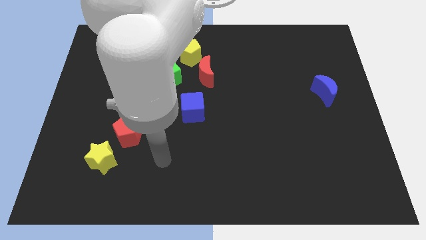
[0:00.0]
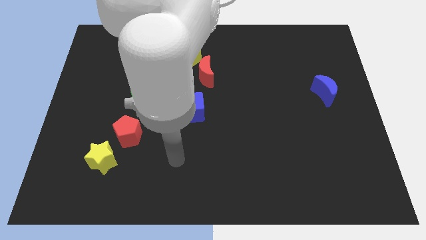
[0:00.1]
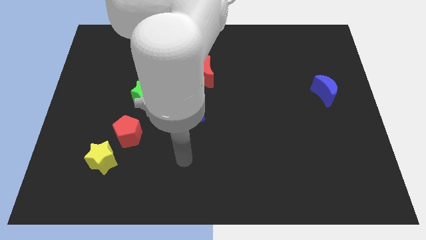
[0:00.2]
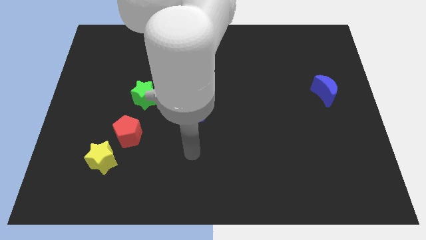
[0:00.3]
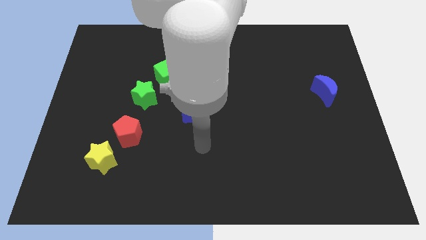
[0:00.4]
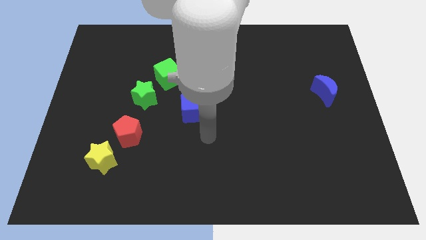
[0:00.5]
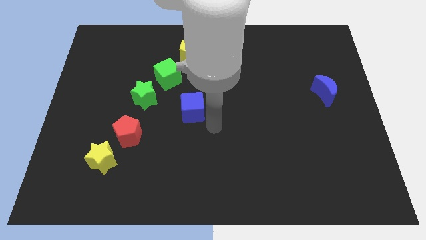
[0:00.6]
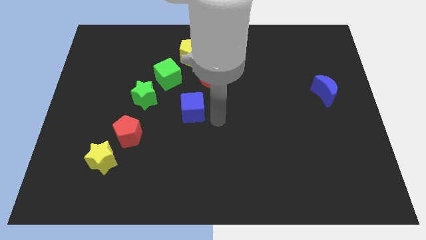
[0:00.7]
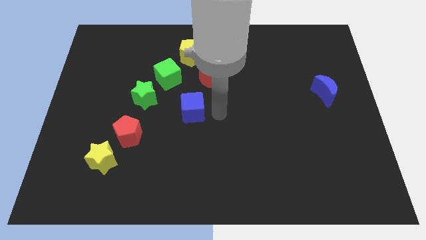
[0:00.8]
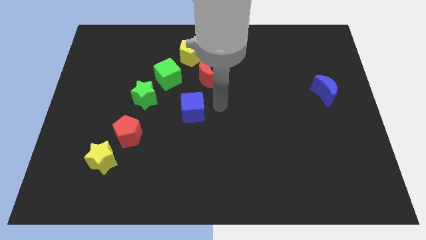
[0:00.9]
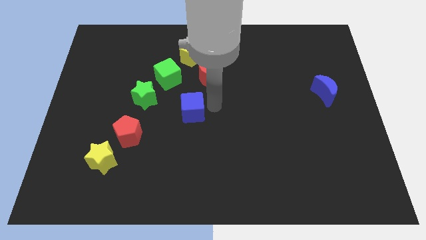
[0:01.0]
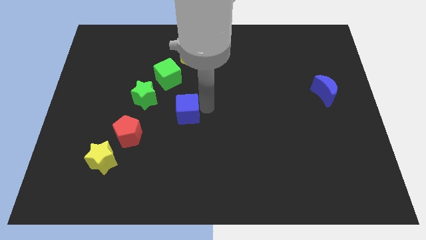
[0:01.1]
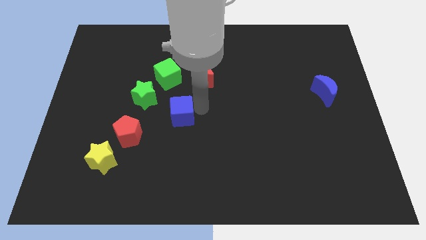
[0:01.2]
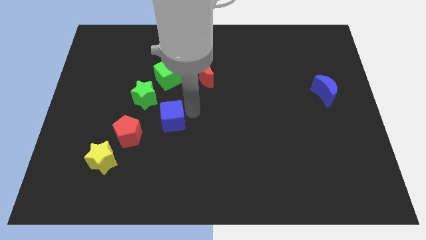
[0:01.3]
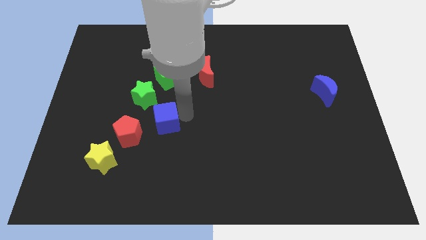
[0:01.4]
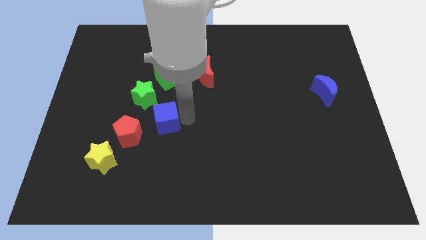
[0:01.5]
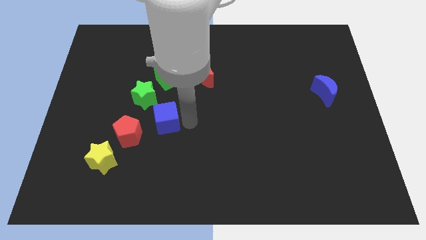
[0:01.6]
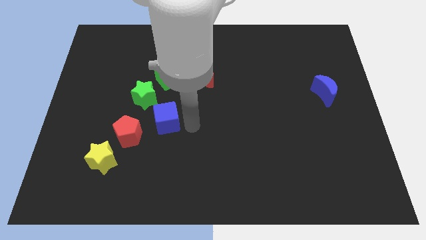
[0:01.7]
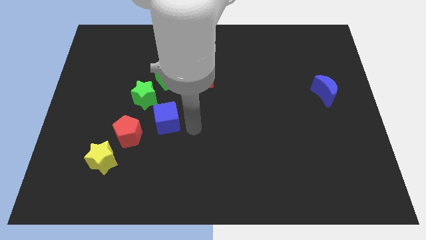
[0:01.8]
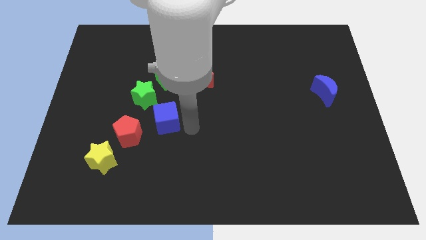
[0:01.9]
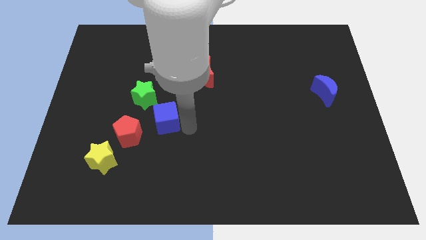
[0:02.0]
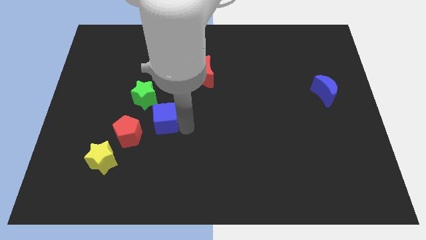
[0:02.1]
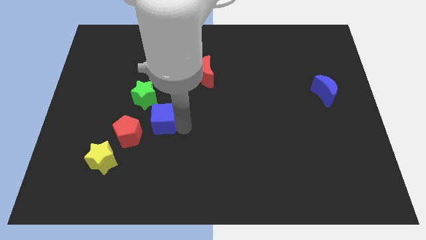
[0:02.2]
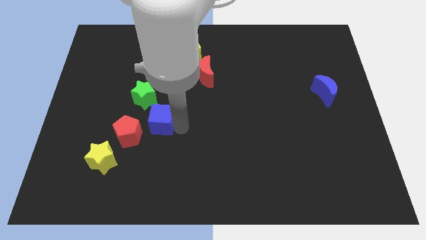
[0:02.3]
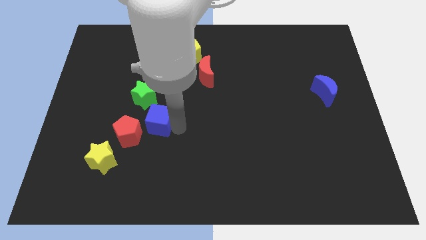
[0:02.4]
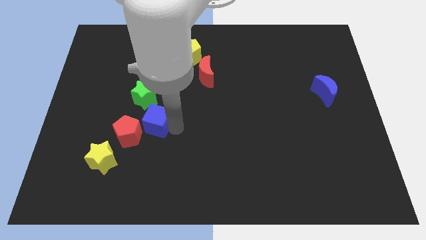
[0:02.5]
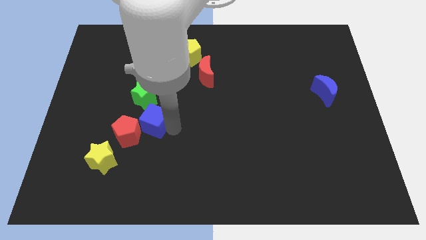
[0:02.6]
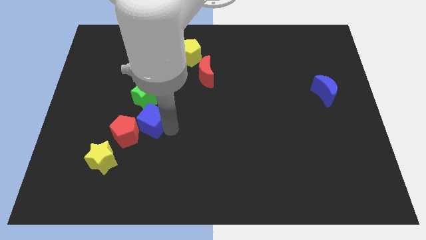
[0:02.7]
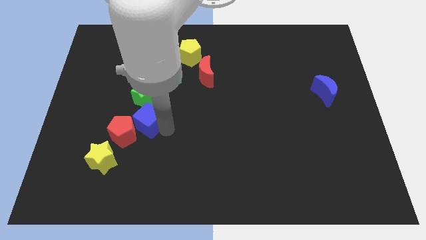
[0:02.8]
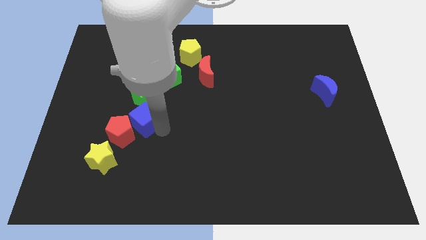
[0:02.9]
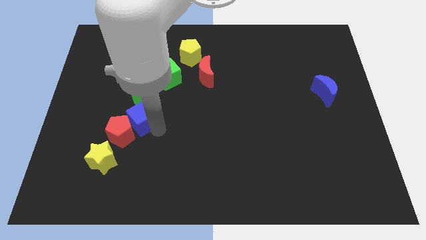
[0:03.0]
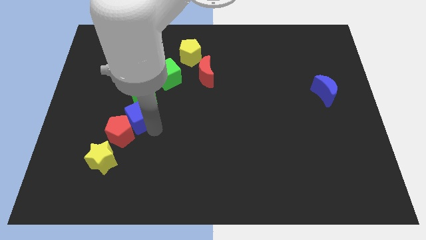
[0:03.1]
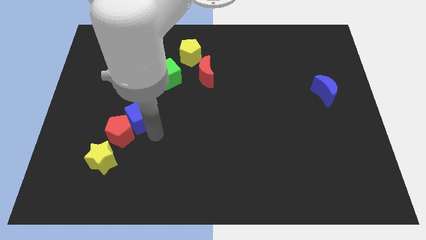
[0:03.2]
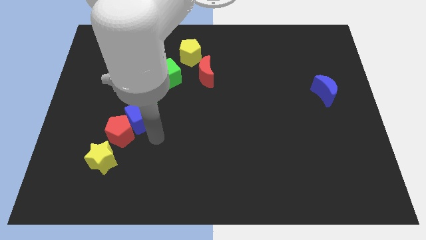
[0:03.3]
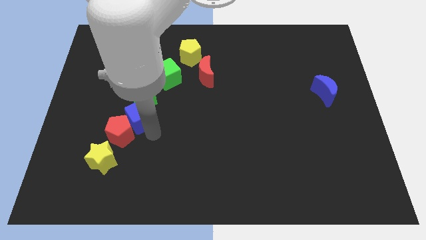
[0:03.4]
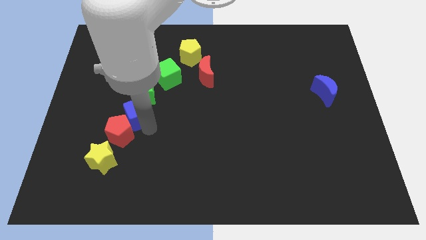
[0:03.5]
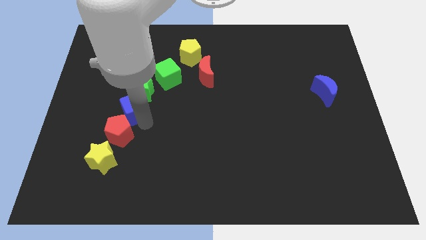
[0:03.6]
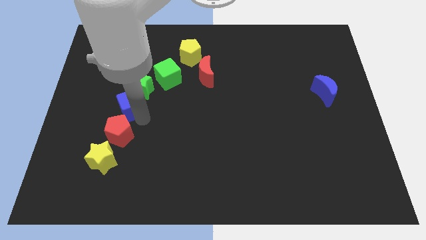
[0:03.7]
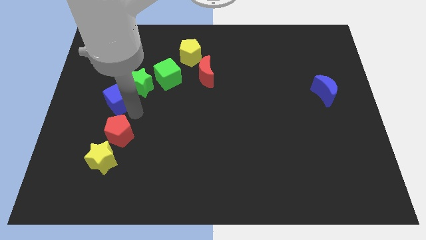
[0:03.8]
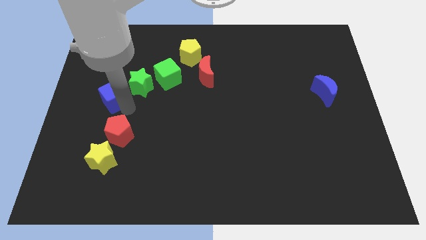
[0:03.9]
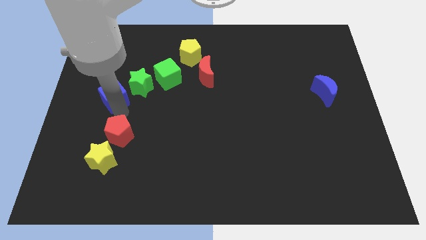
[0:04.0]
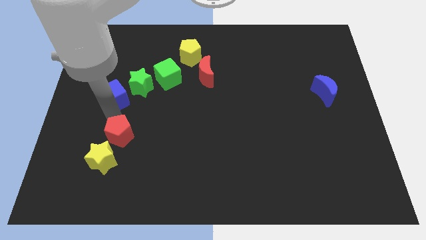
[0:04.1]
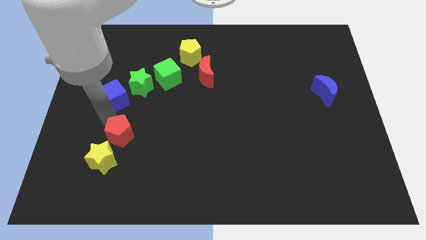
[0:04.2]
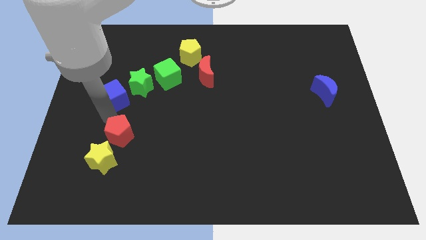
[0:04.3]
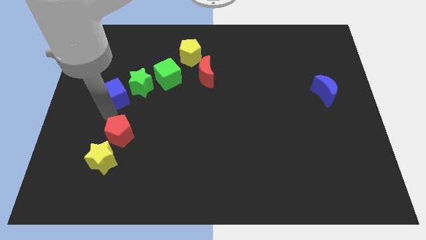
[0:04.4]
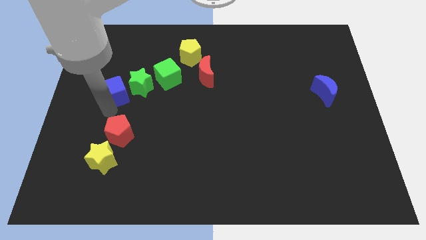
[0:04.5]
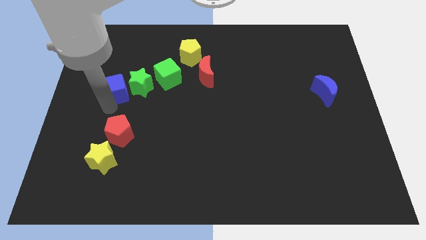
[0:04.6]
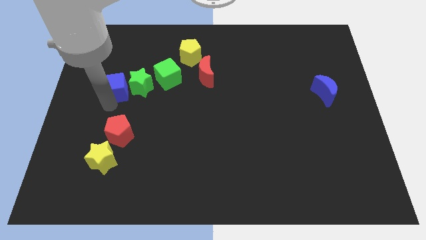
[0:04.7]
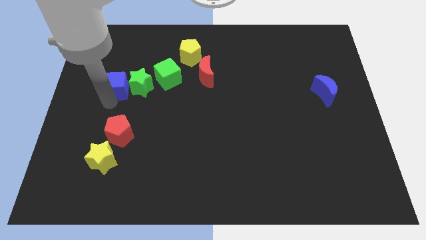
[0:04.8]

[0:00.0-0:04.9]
put the blue cube diagonally up and to the left of the green star

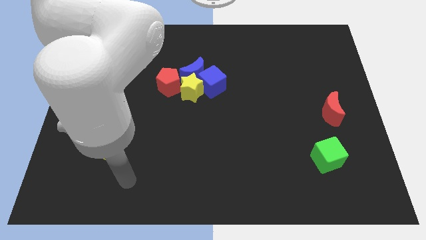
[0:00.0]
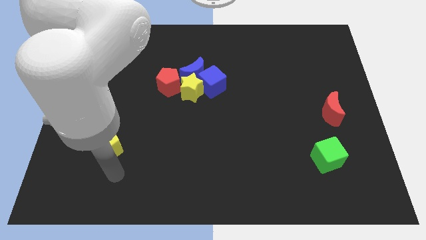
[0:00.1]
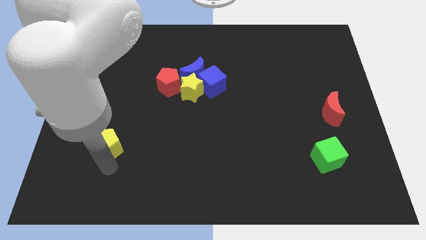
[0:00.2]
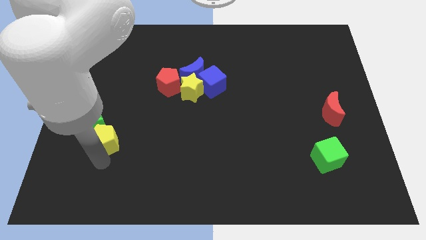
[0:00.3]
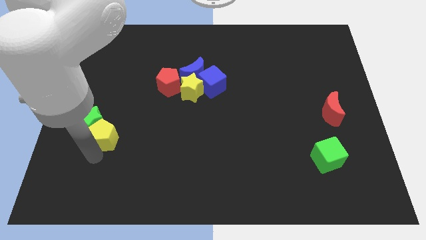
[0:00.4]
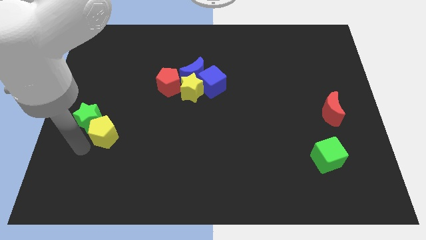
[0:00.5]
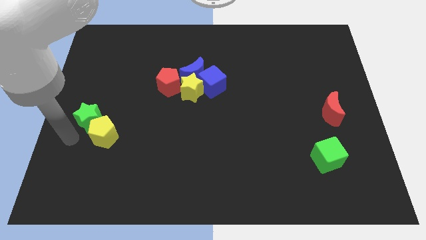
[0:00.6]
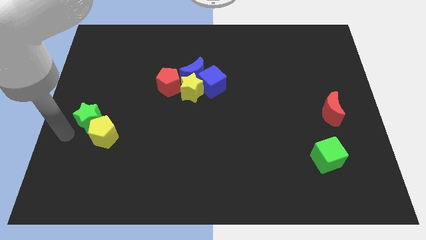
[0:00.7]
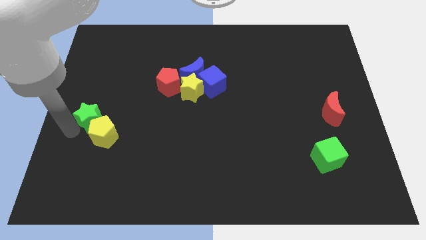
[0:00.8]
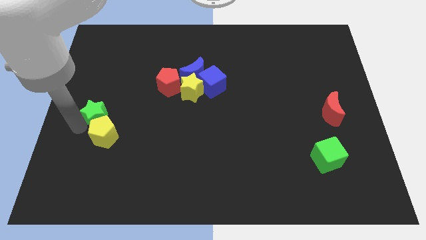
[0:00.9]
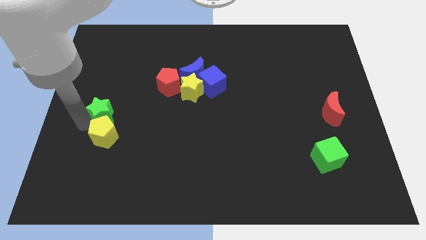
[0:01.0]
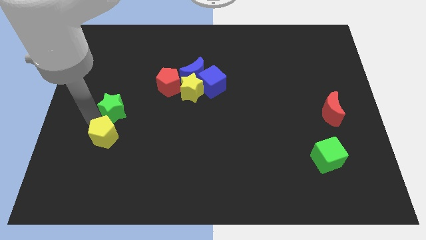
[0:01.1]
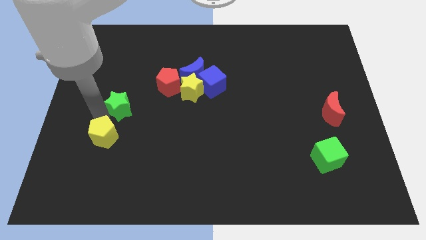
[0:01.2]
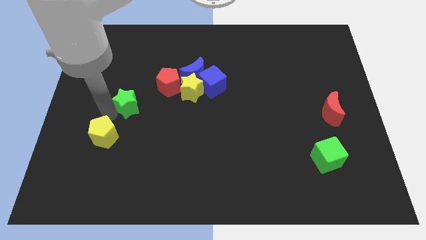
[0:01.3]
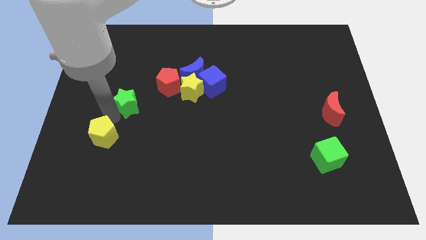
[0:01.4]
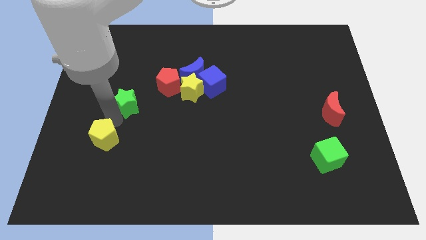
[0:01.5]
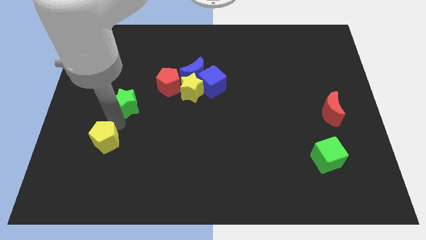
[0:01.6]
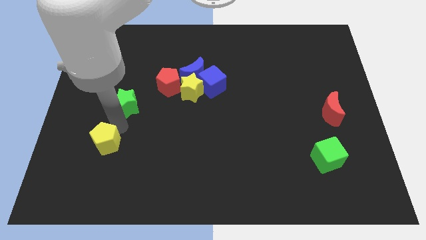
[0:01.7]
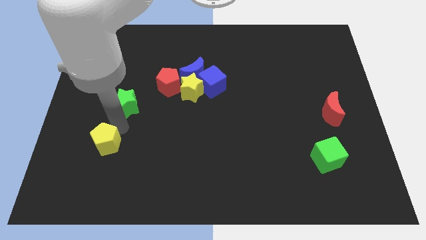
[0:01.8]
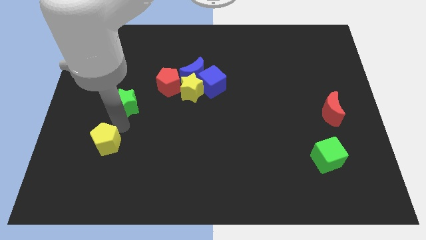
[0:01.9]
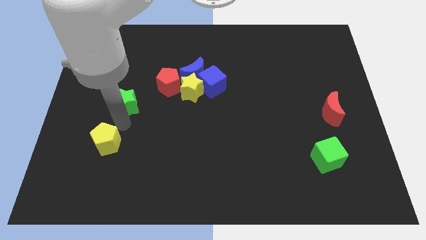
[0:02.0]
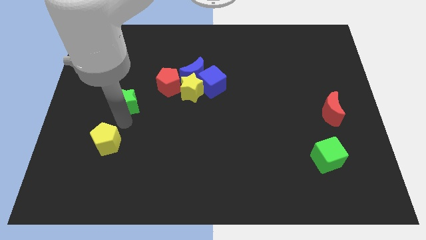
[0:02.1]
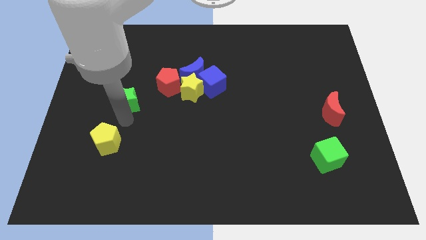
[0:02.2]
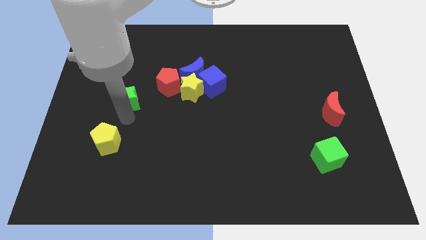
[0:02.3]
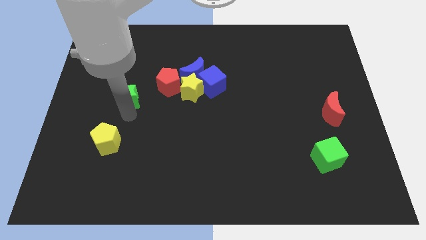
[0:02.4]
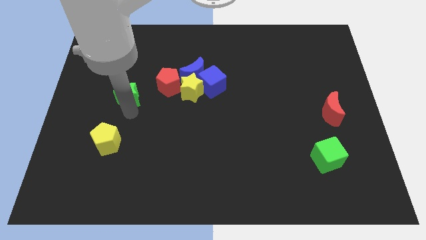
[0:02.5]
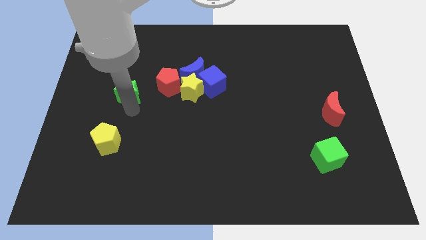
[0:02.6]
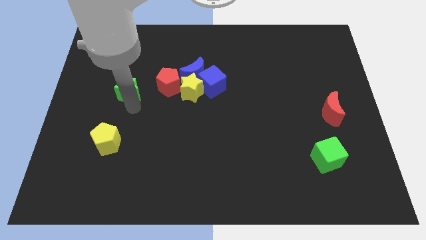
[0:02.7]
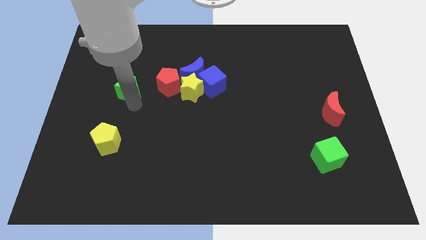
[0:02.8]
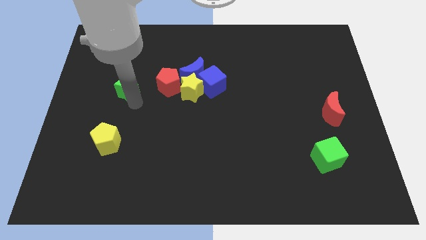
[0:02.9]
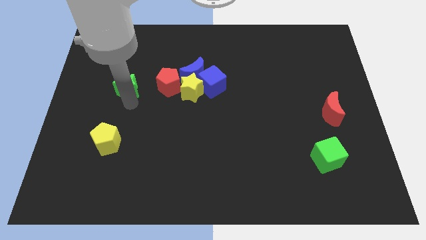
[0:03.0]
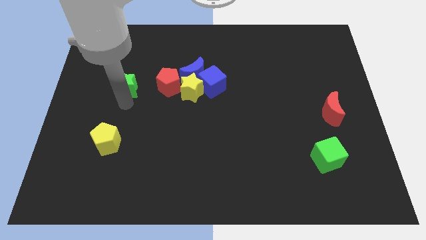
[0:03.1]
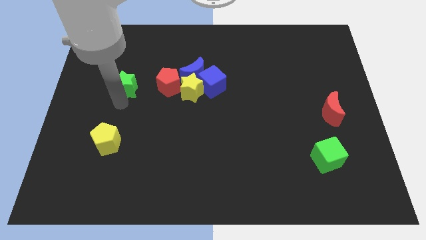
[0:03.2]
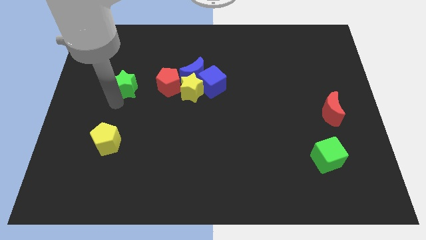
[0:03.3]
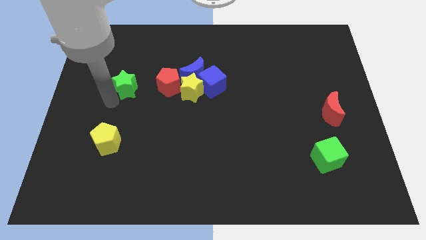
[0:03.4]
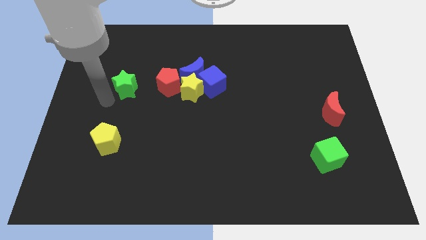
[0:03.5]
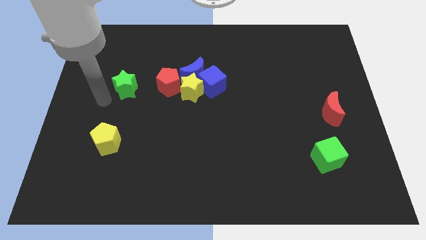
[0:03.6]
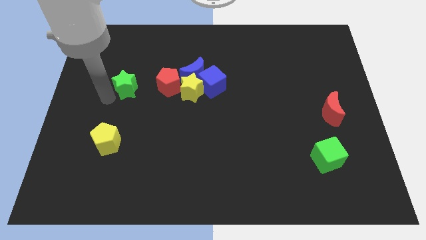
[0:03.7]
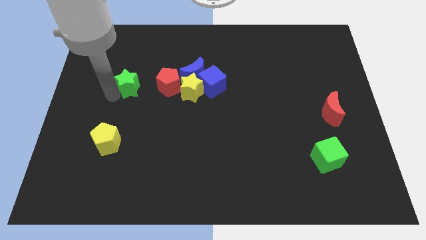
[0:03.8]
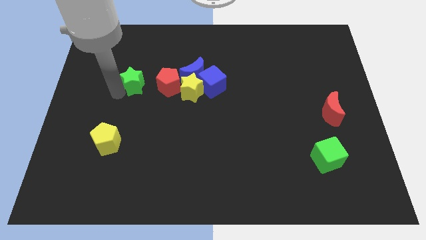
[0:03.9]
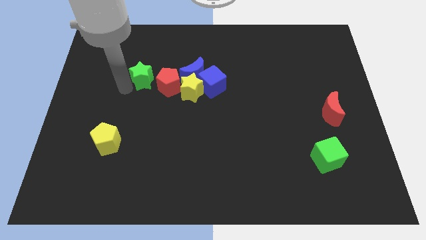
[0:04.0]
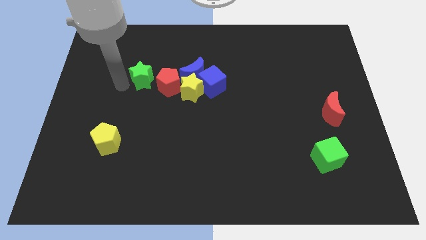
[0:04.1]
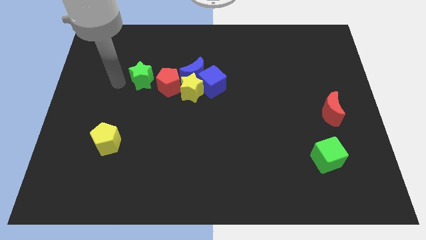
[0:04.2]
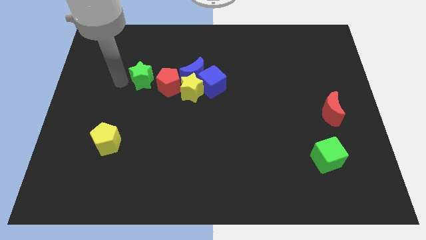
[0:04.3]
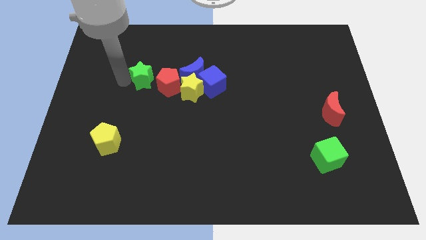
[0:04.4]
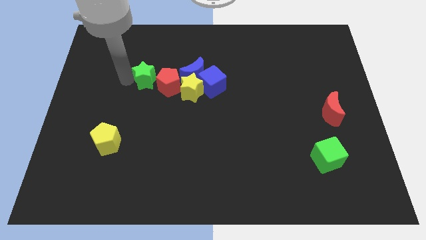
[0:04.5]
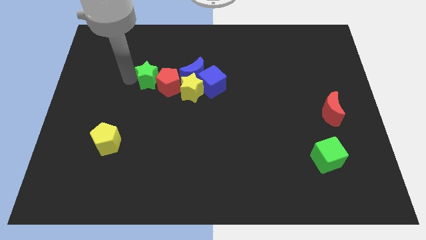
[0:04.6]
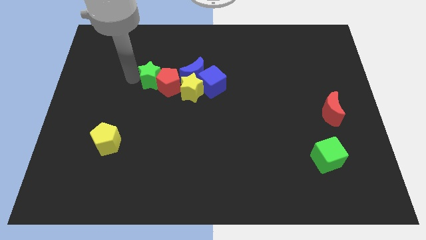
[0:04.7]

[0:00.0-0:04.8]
move the green star diagonally up and to the left of the yellow star
